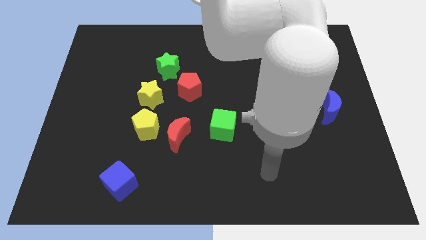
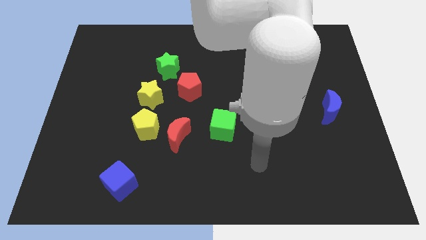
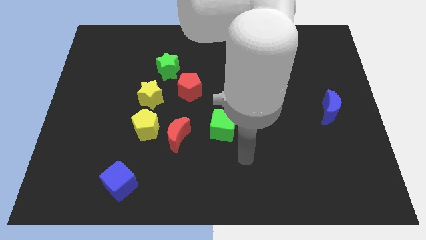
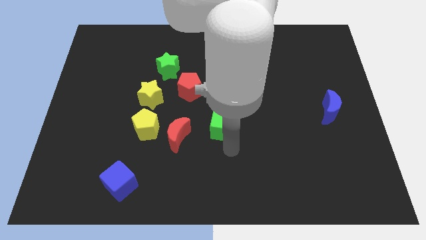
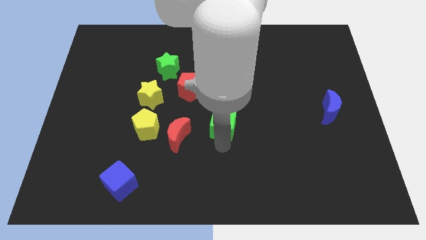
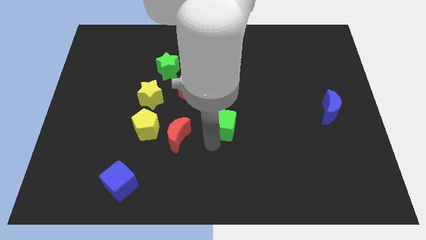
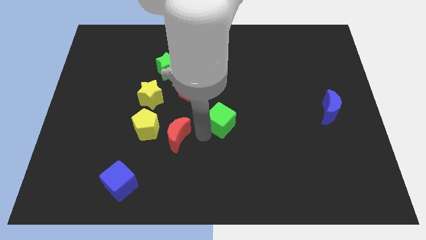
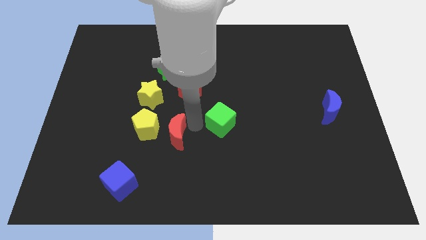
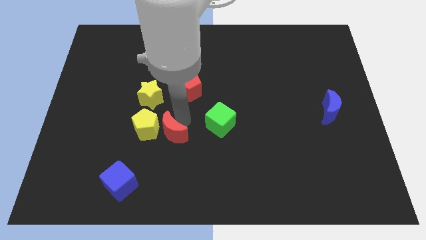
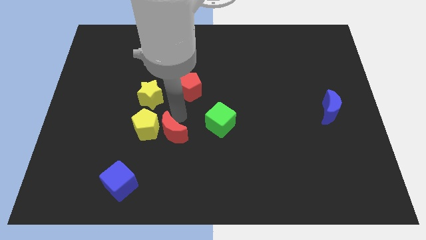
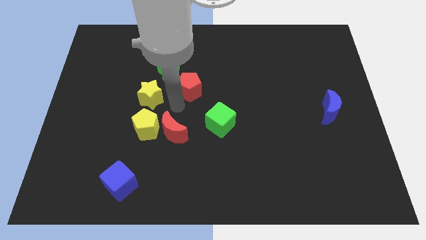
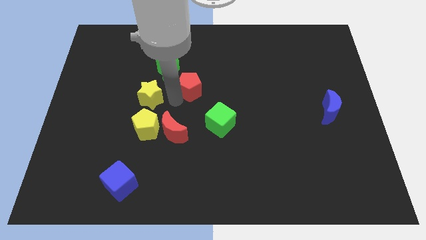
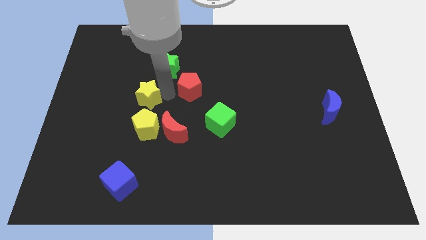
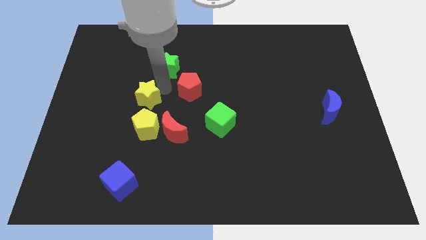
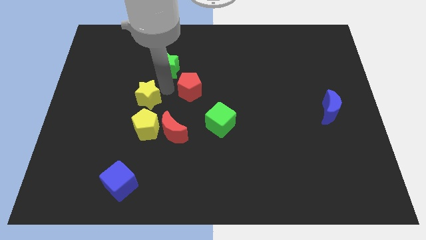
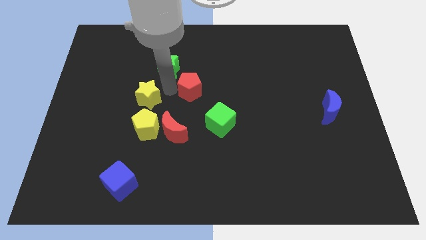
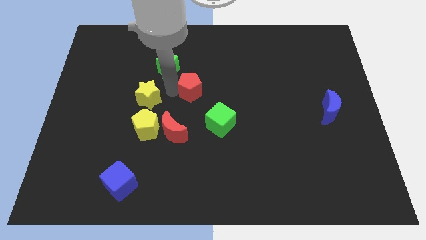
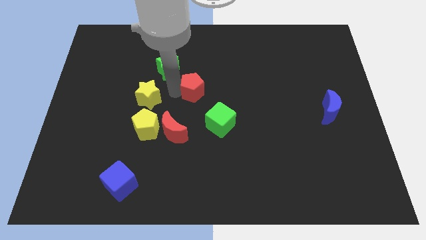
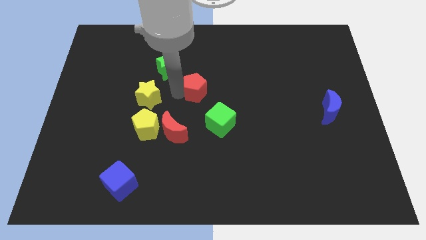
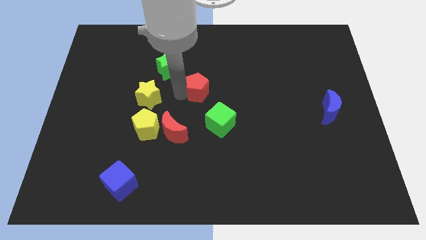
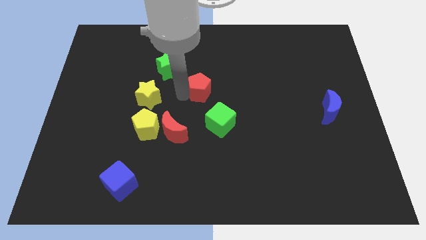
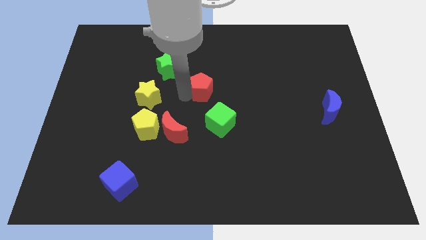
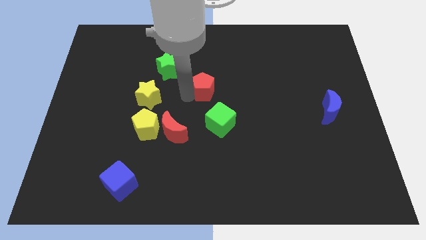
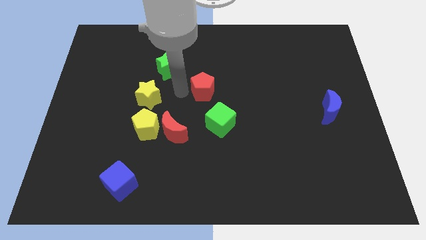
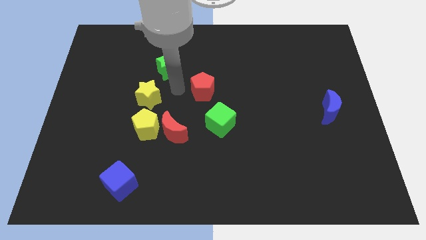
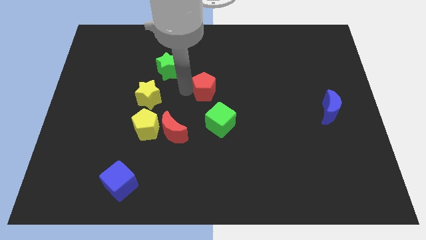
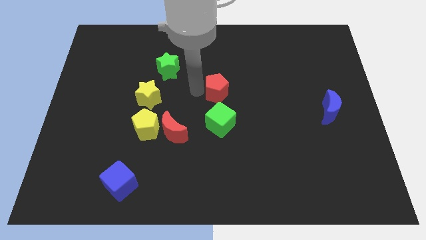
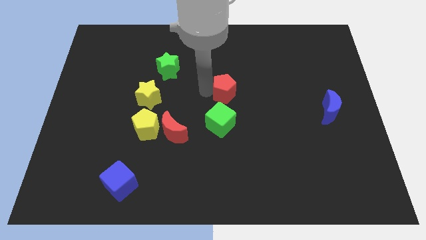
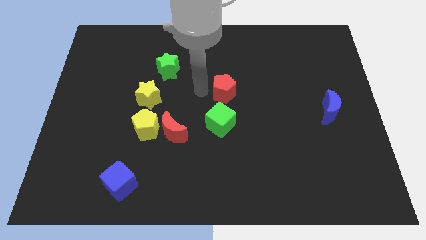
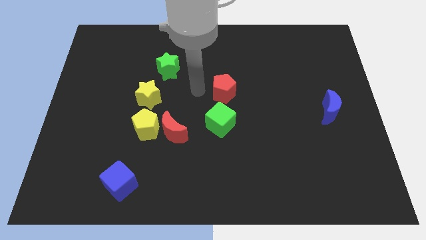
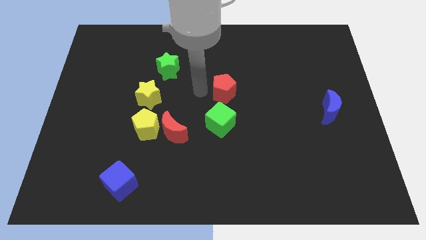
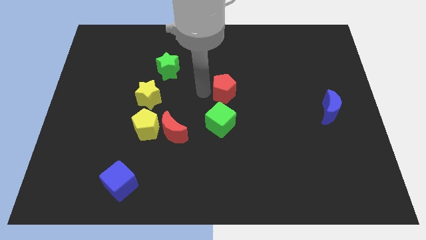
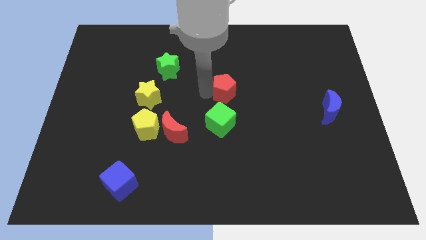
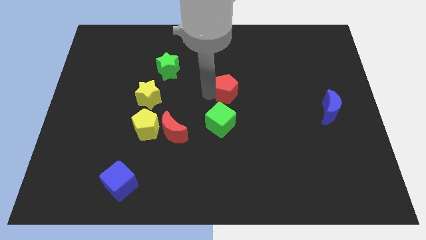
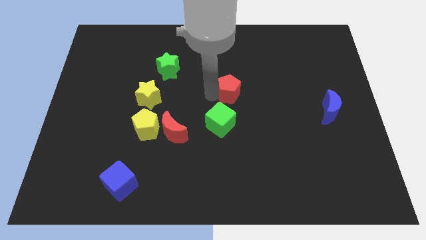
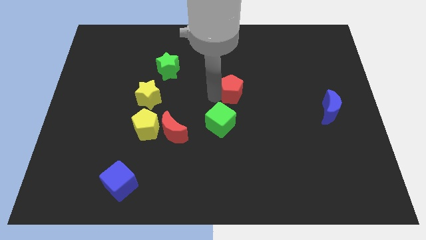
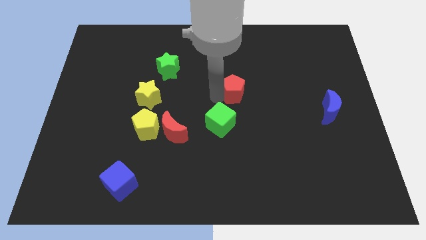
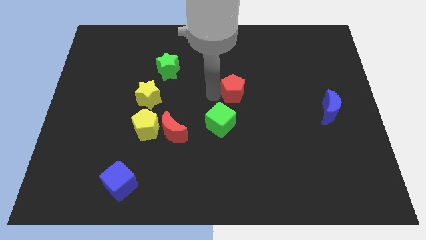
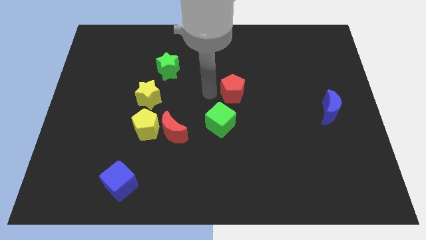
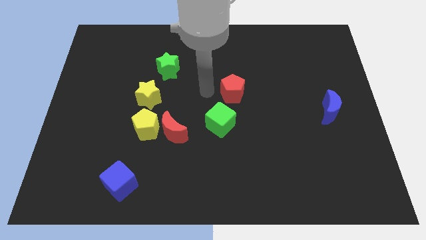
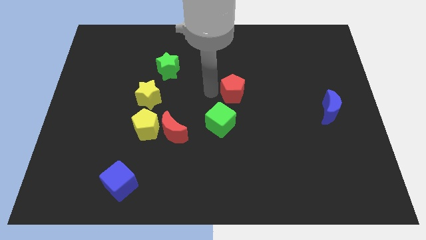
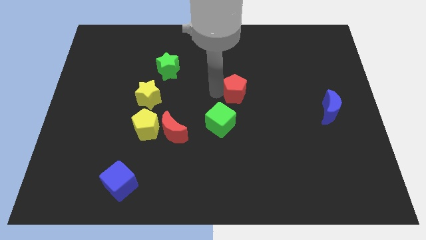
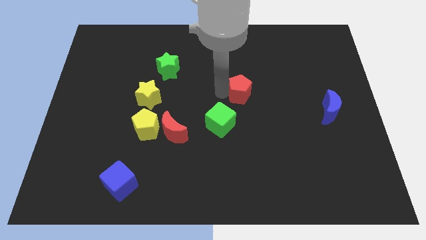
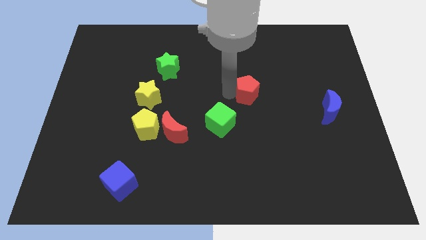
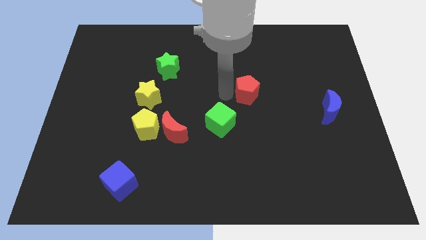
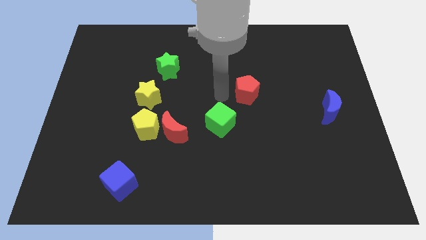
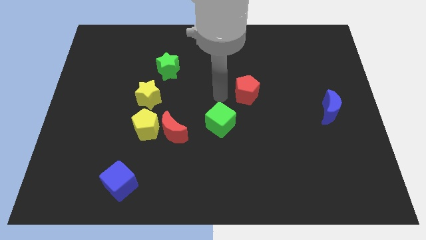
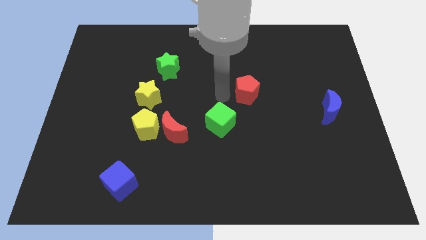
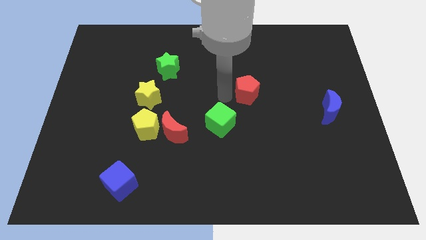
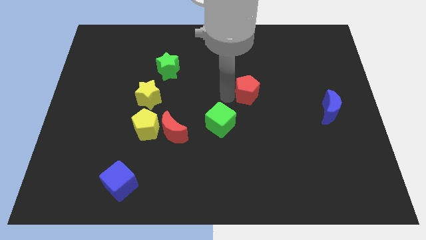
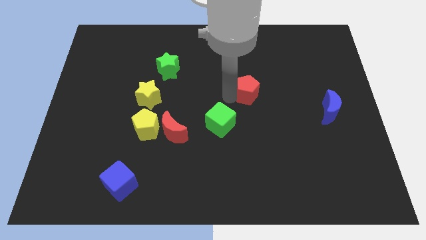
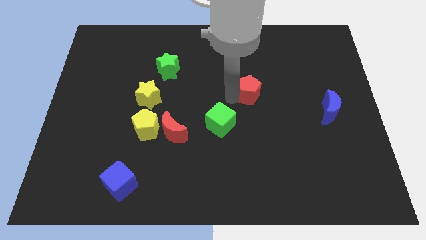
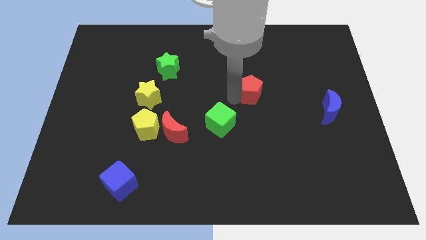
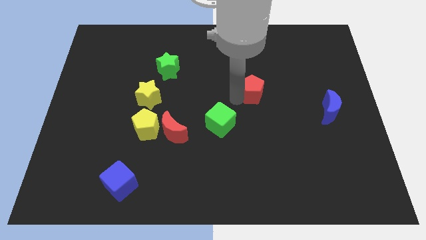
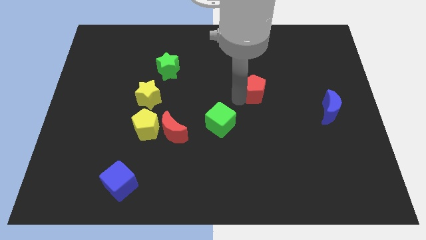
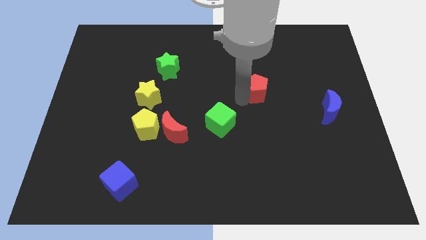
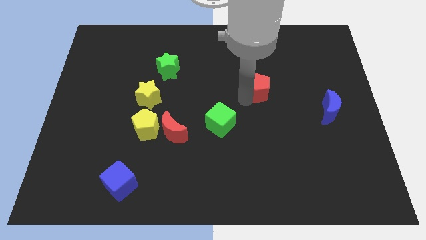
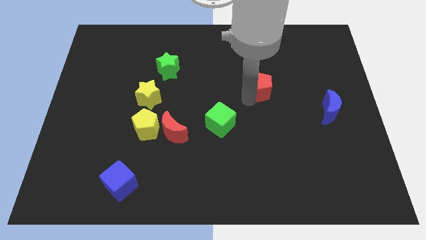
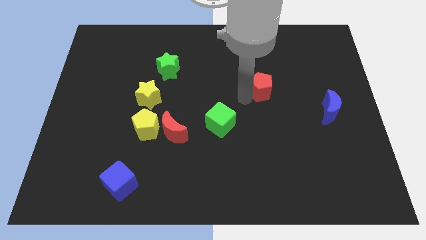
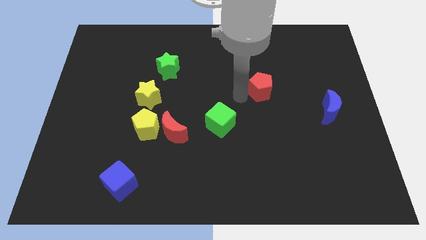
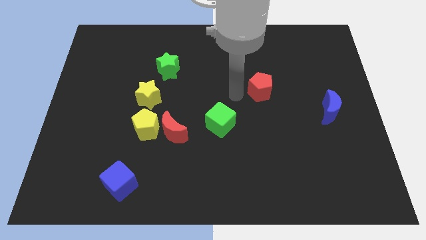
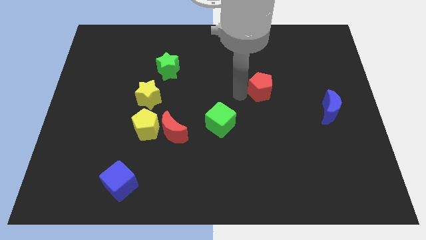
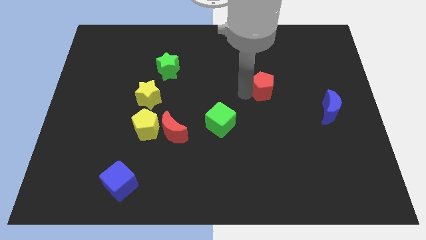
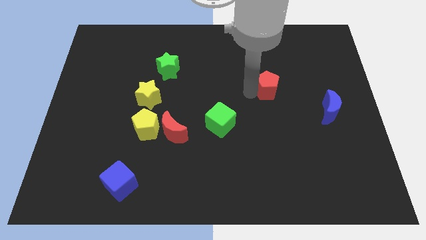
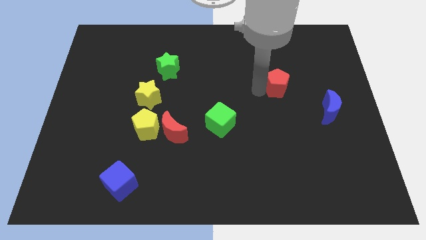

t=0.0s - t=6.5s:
move the red pentagon right

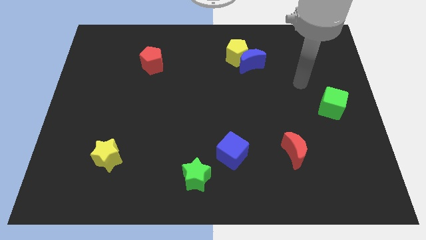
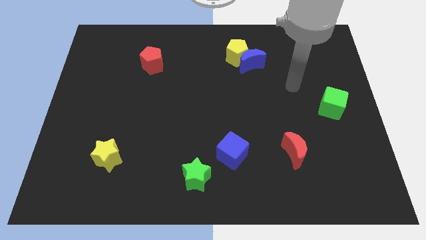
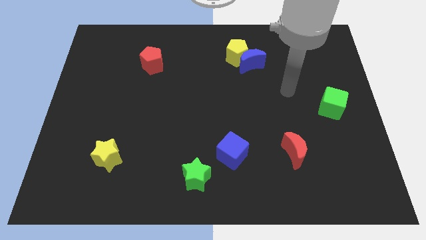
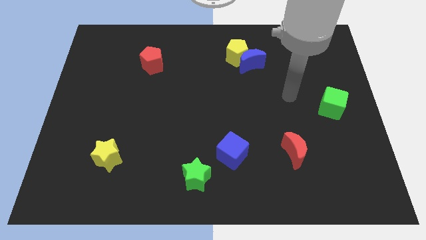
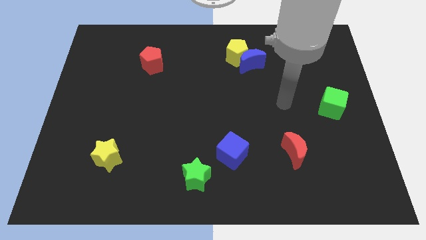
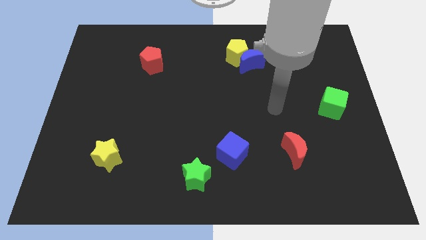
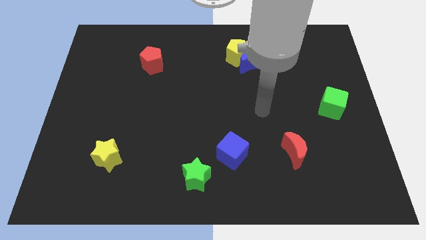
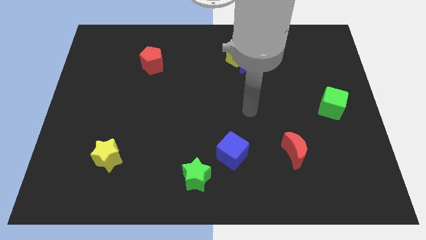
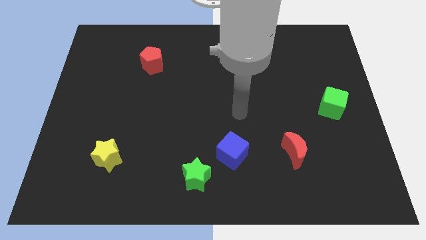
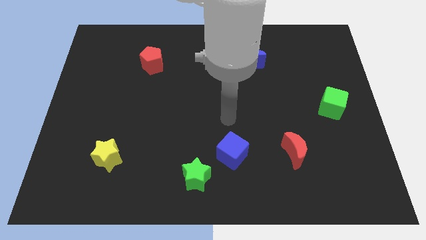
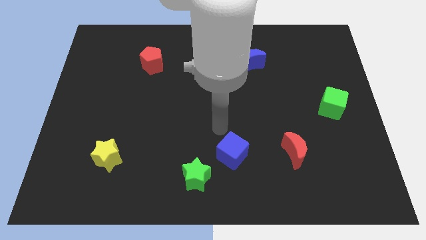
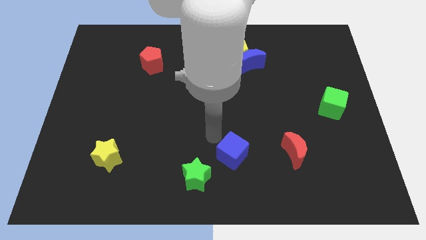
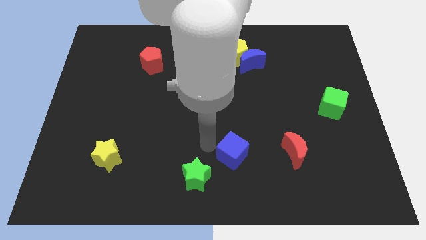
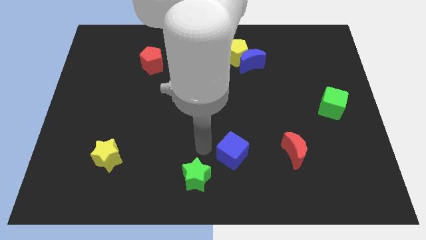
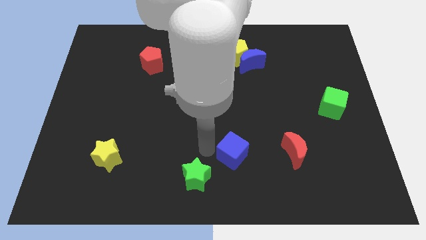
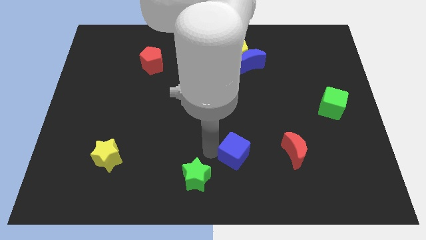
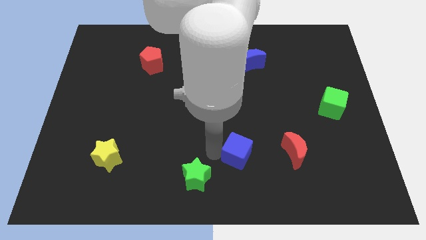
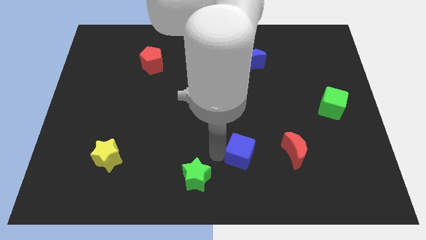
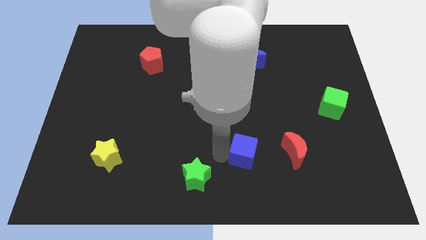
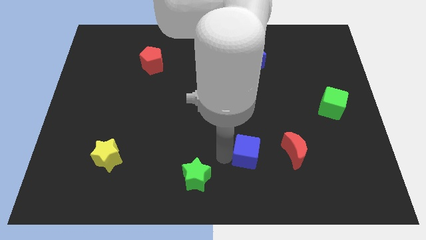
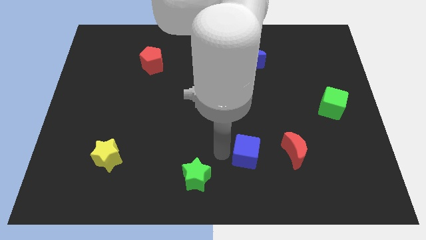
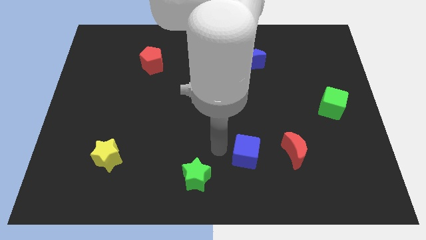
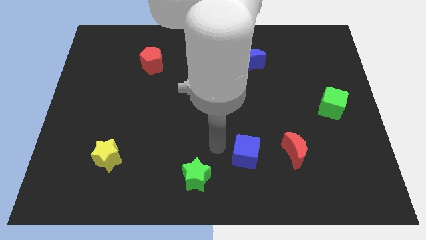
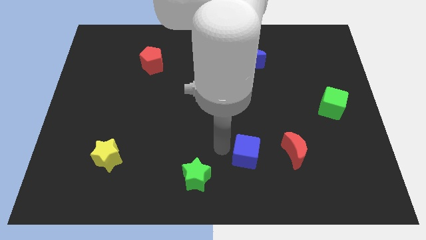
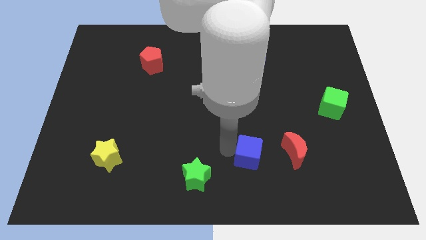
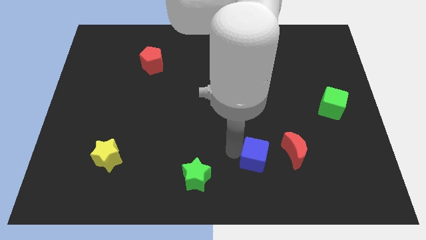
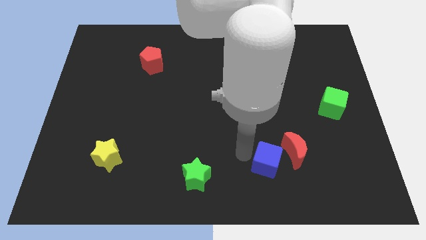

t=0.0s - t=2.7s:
slide the blue cube to the right a bit
